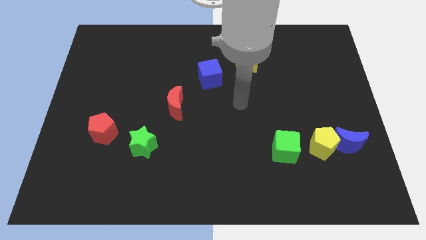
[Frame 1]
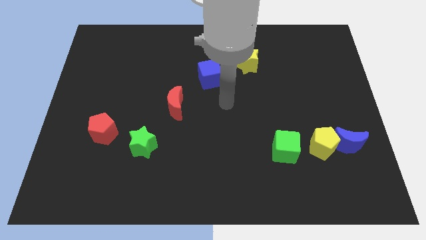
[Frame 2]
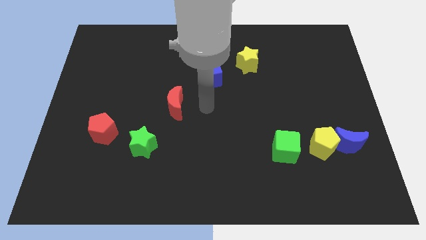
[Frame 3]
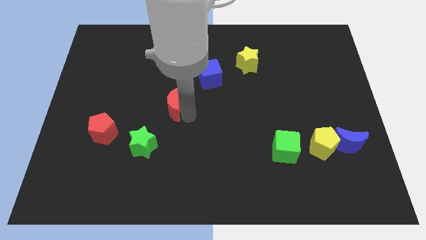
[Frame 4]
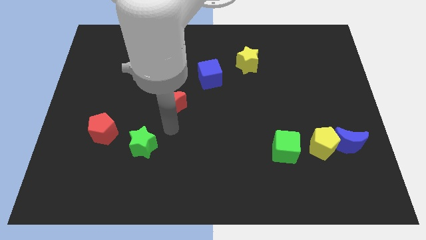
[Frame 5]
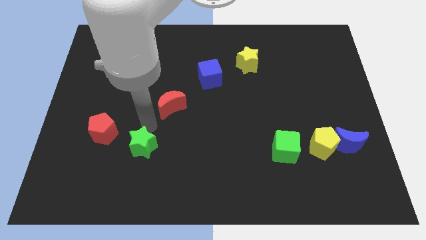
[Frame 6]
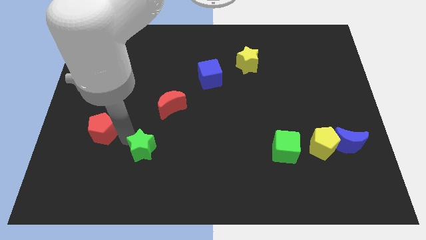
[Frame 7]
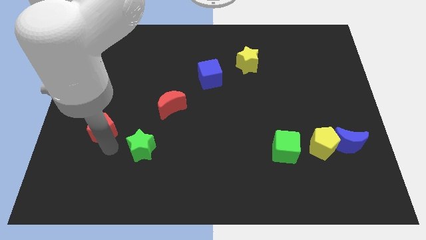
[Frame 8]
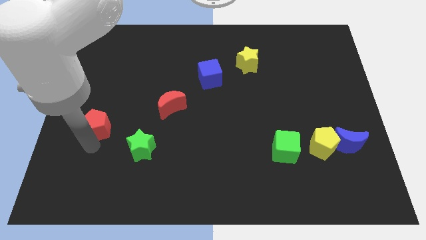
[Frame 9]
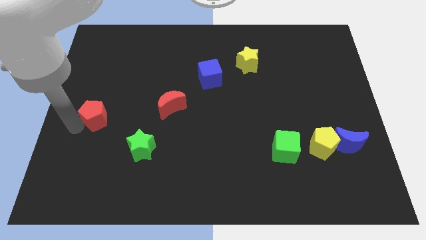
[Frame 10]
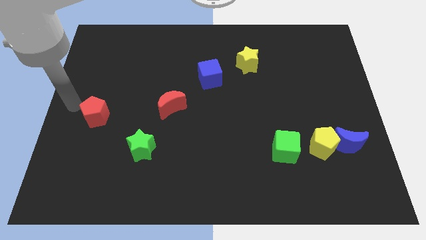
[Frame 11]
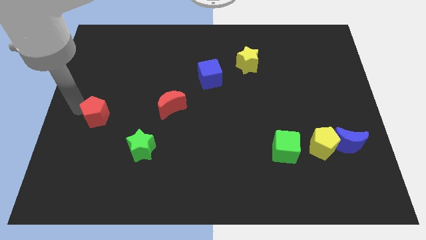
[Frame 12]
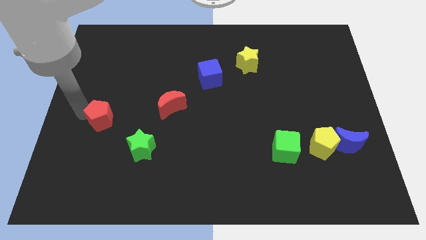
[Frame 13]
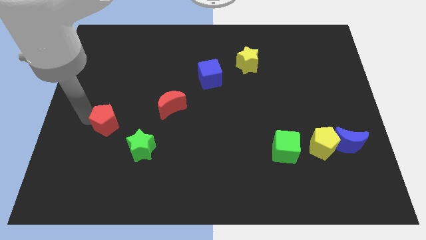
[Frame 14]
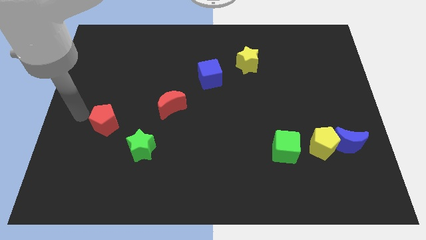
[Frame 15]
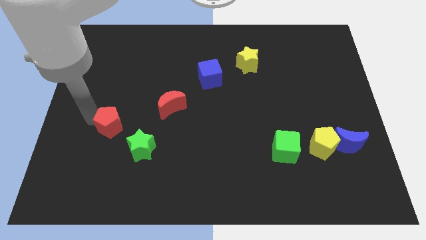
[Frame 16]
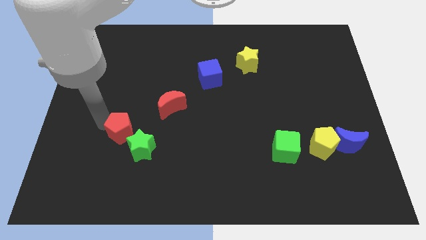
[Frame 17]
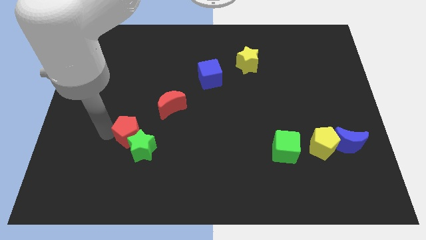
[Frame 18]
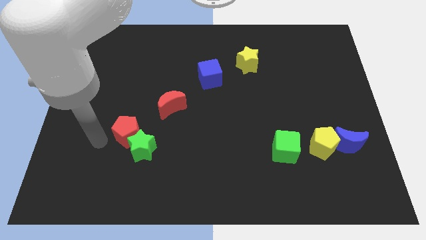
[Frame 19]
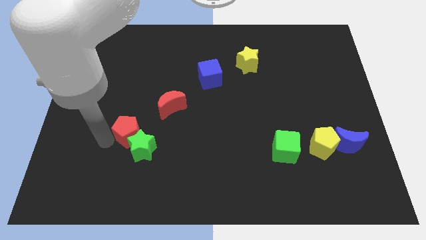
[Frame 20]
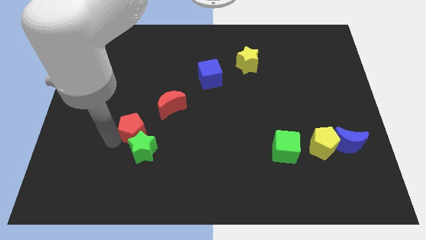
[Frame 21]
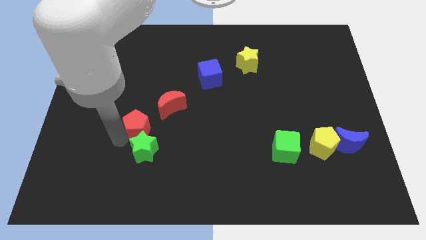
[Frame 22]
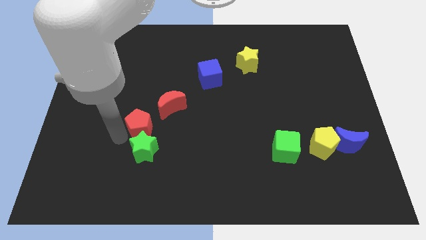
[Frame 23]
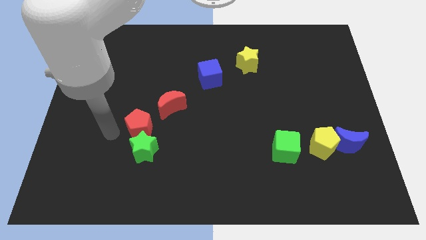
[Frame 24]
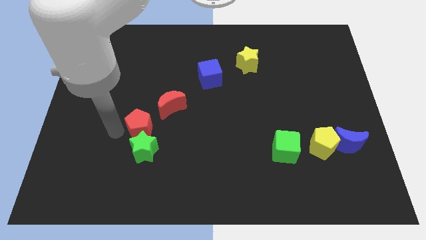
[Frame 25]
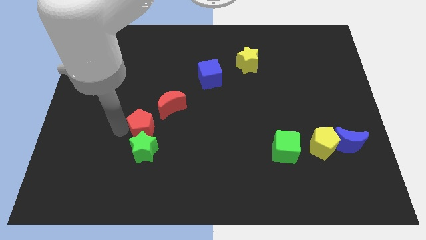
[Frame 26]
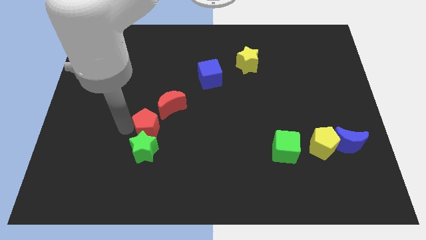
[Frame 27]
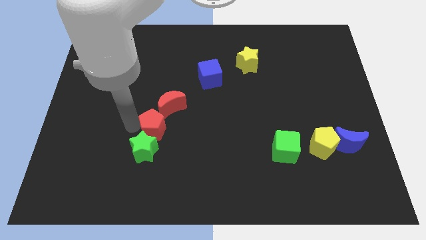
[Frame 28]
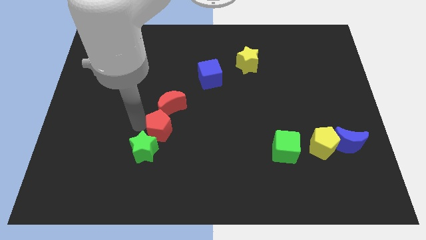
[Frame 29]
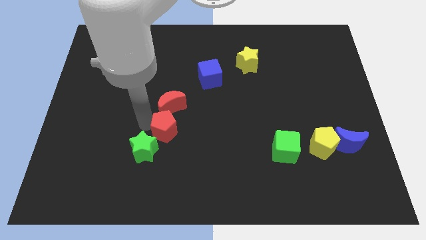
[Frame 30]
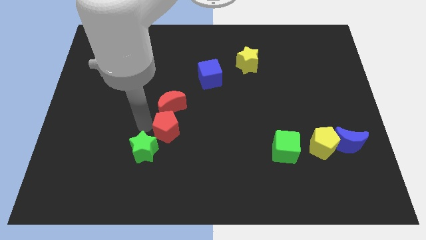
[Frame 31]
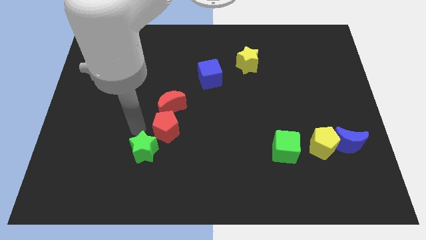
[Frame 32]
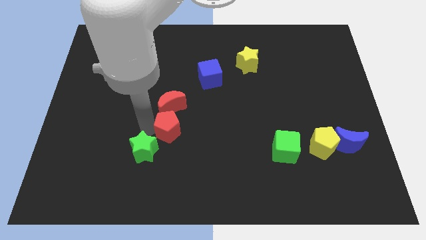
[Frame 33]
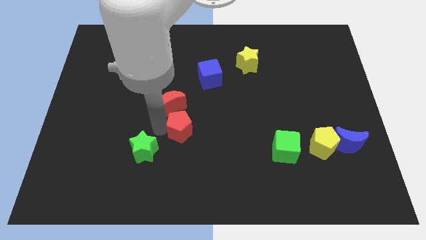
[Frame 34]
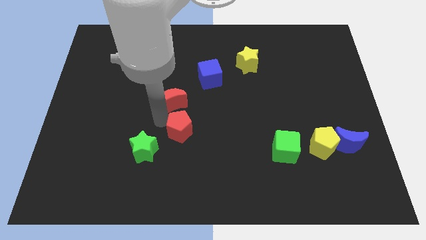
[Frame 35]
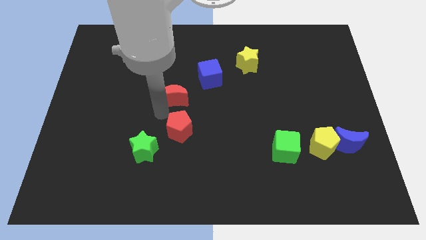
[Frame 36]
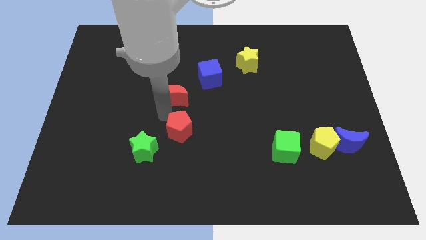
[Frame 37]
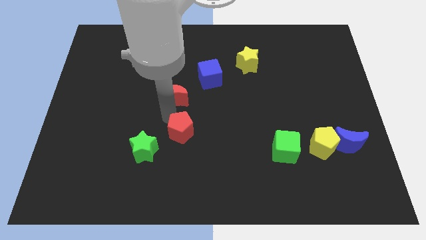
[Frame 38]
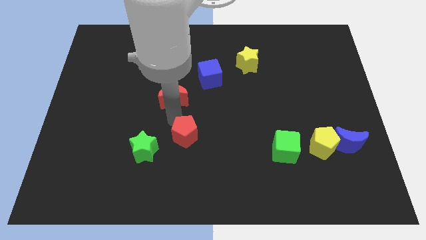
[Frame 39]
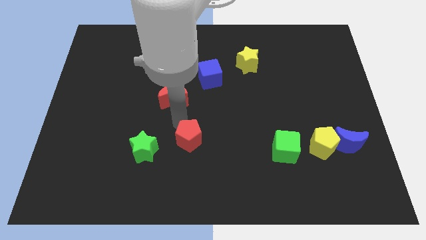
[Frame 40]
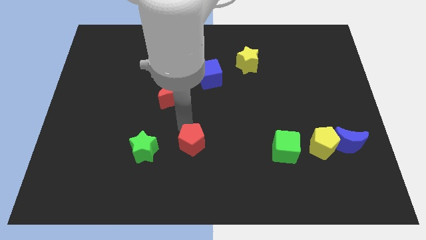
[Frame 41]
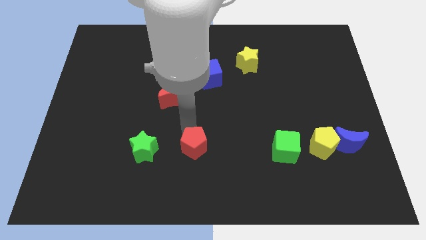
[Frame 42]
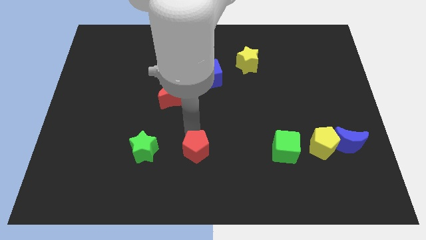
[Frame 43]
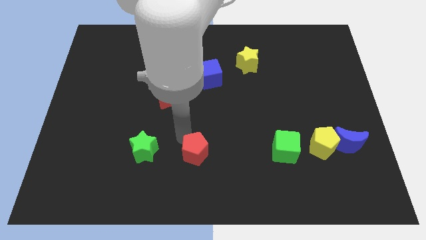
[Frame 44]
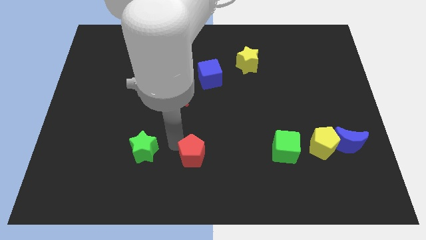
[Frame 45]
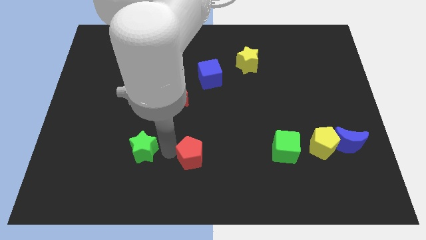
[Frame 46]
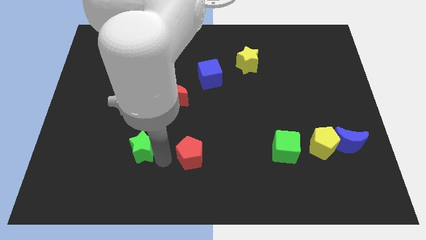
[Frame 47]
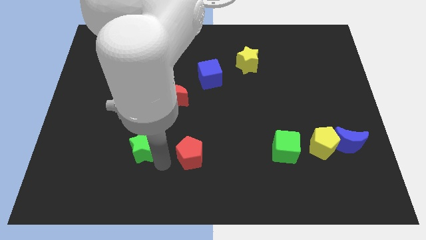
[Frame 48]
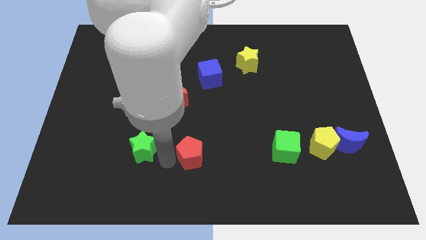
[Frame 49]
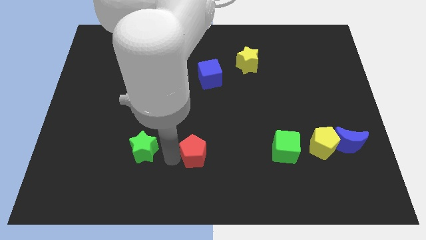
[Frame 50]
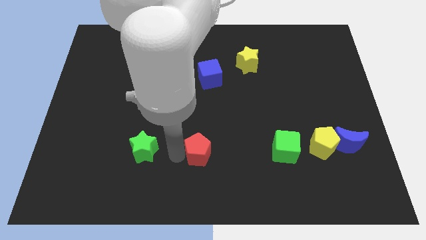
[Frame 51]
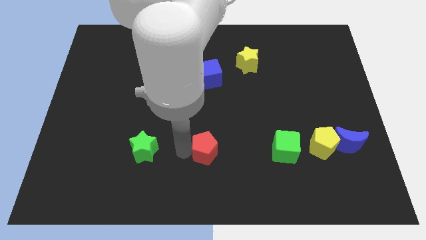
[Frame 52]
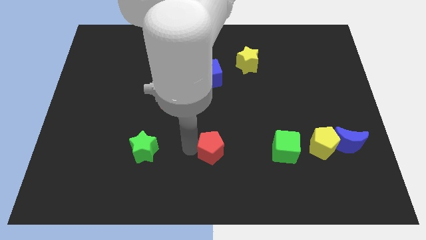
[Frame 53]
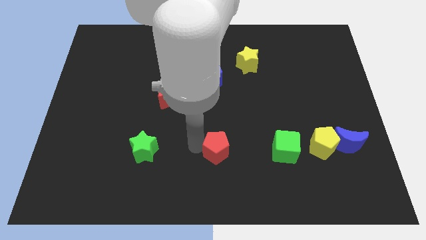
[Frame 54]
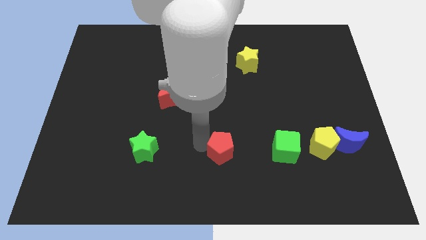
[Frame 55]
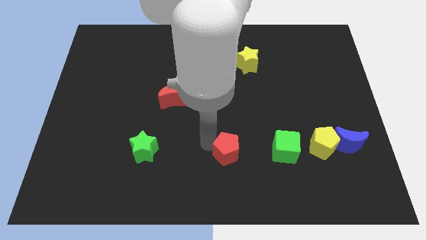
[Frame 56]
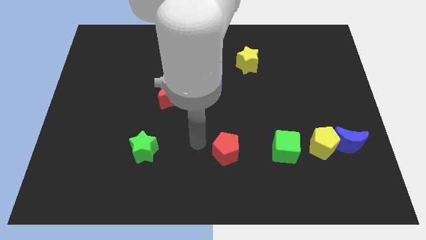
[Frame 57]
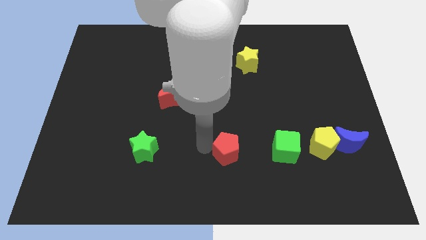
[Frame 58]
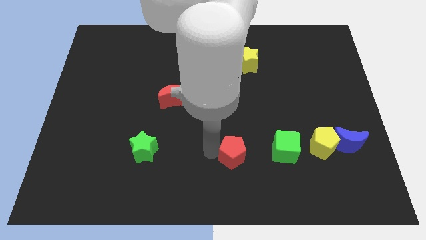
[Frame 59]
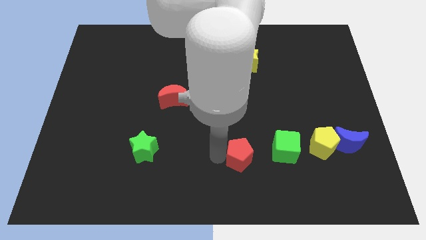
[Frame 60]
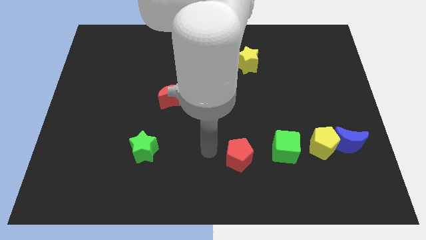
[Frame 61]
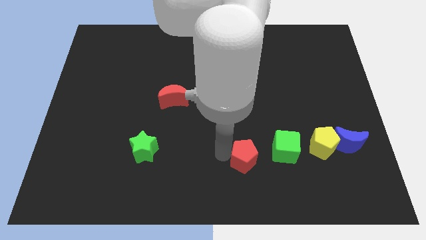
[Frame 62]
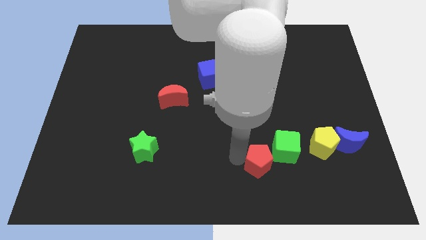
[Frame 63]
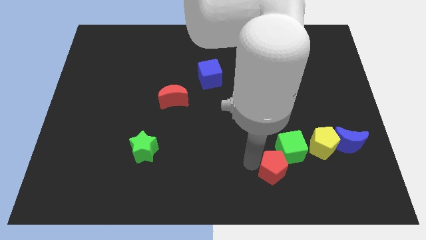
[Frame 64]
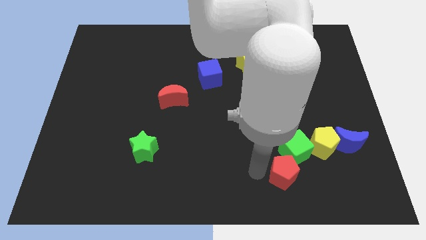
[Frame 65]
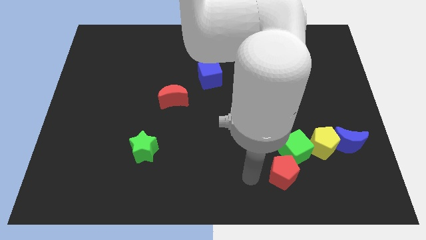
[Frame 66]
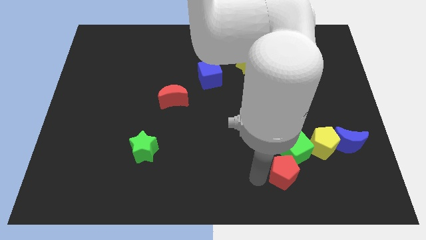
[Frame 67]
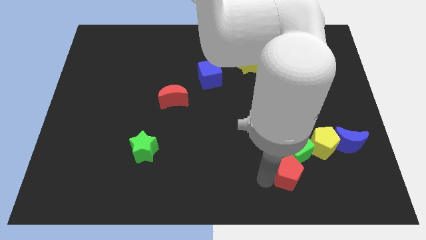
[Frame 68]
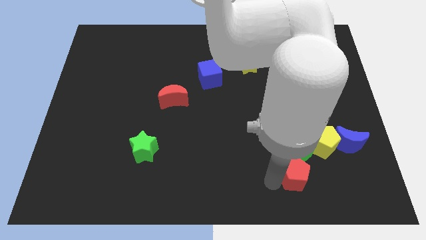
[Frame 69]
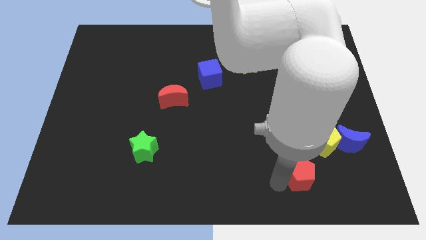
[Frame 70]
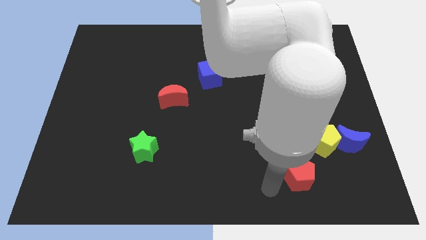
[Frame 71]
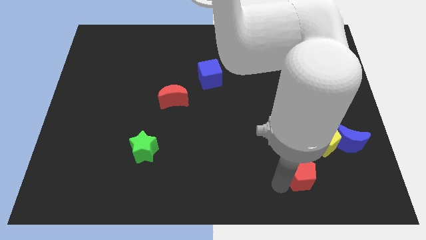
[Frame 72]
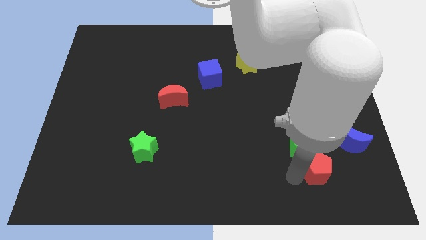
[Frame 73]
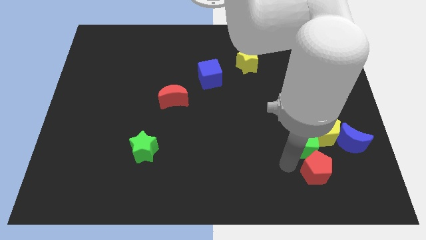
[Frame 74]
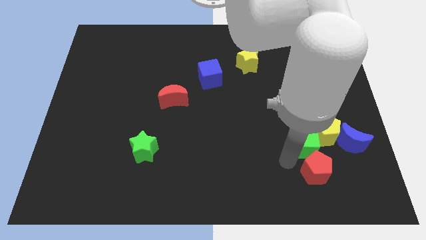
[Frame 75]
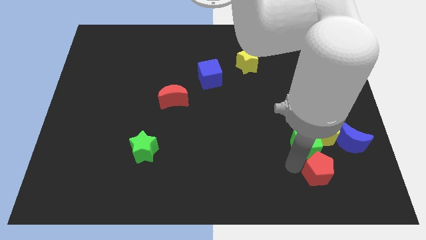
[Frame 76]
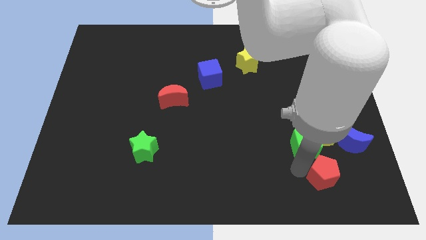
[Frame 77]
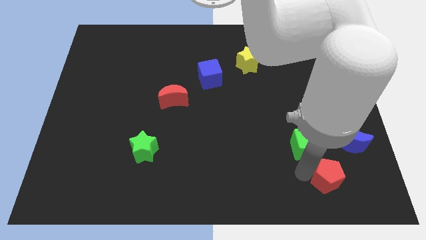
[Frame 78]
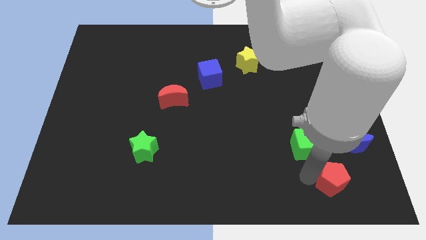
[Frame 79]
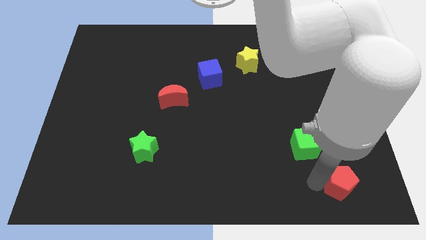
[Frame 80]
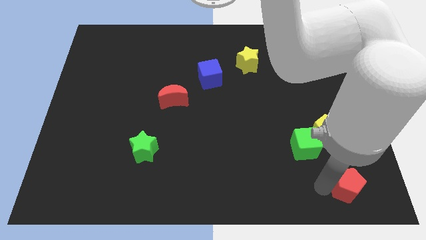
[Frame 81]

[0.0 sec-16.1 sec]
move the red pentagon to the bottom right
